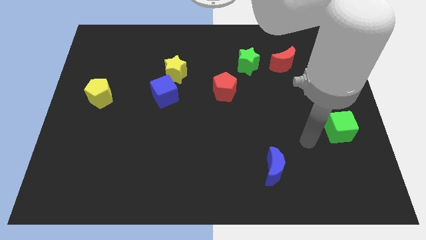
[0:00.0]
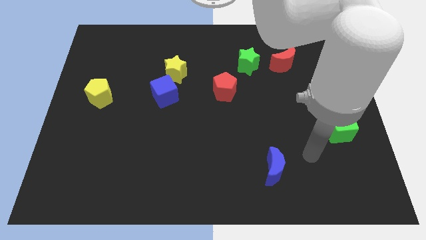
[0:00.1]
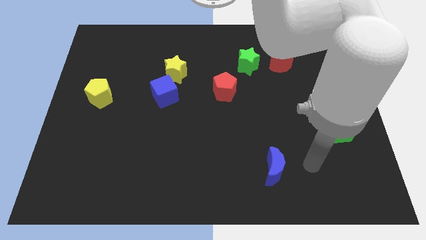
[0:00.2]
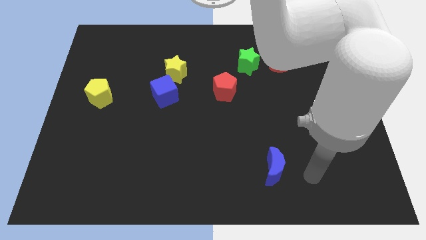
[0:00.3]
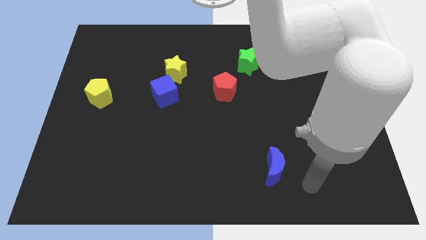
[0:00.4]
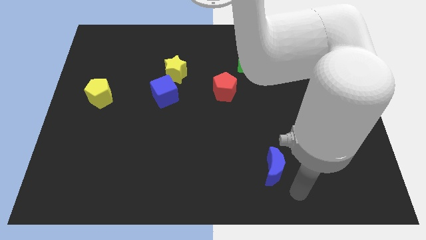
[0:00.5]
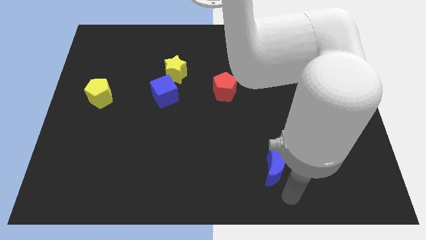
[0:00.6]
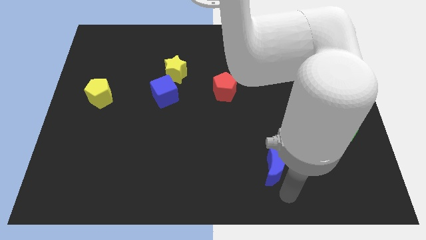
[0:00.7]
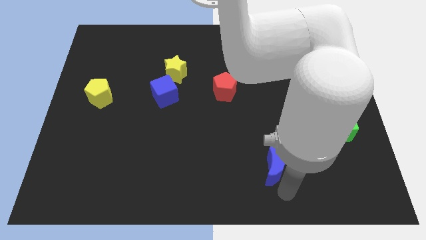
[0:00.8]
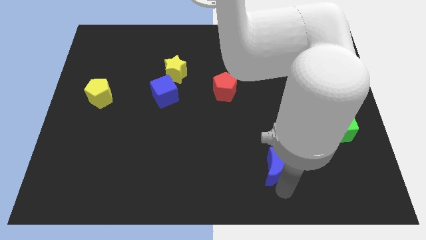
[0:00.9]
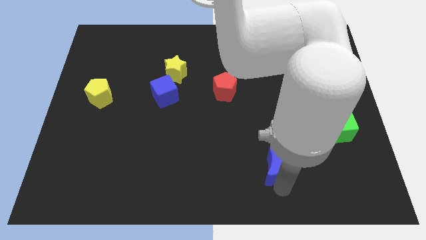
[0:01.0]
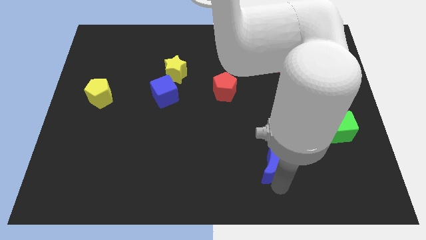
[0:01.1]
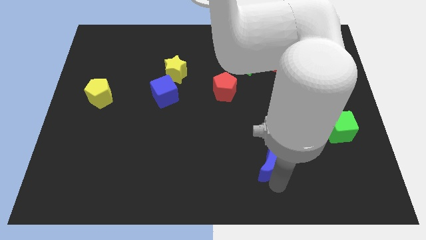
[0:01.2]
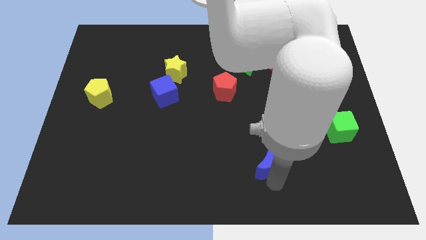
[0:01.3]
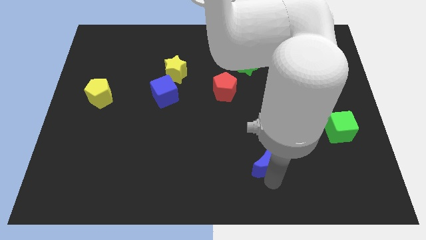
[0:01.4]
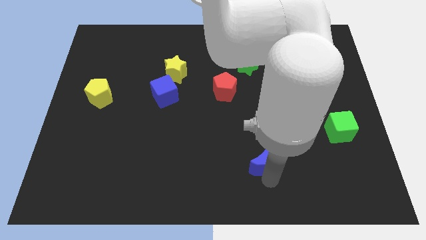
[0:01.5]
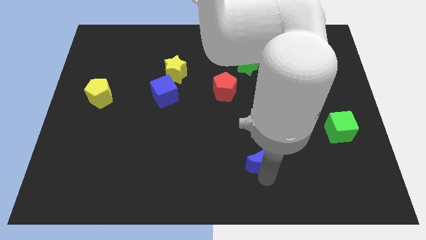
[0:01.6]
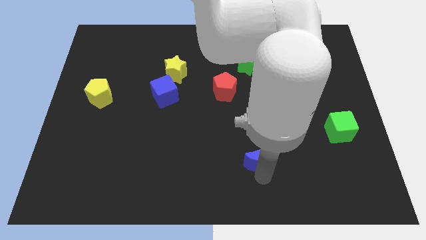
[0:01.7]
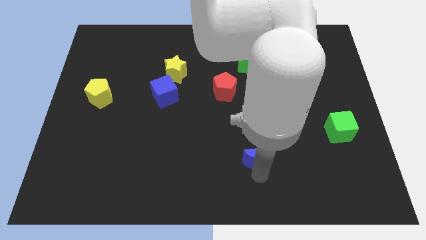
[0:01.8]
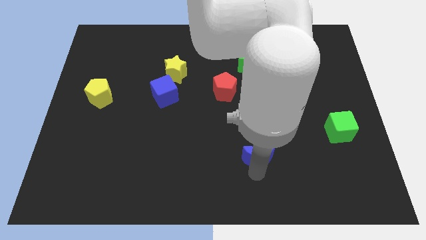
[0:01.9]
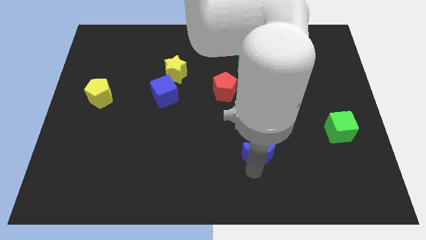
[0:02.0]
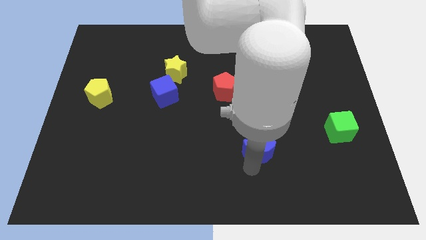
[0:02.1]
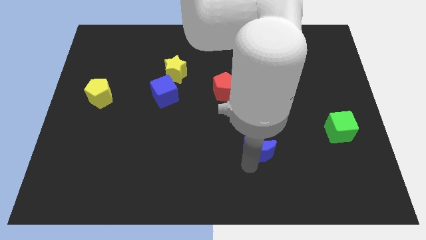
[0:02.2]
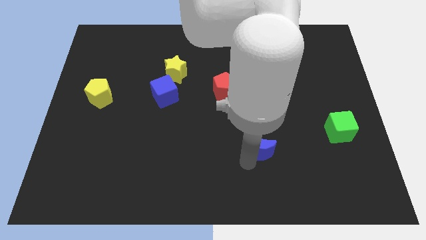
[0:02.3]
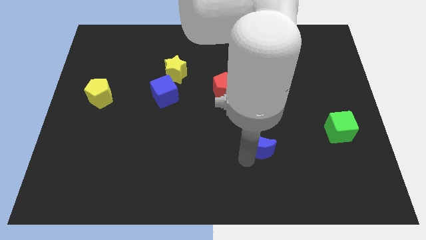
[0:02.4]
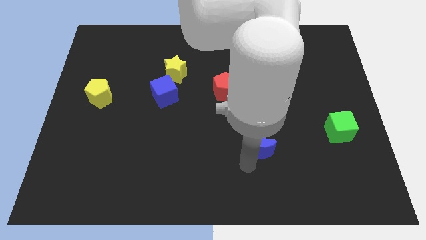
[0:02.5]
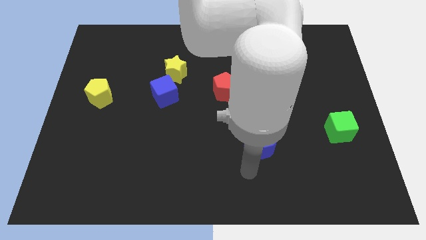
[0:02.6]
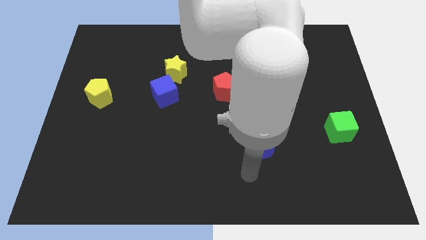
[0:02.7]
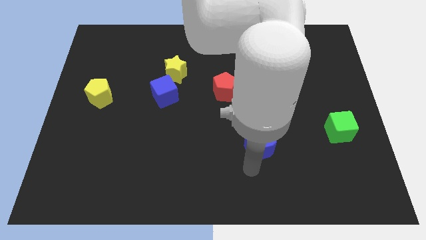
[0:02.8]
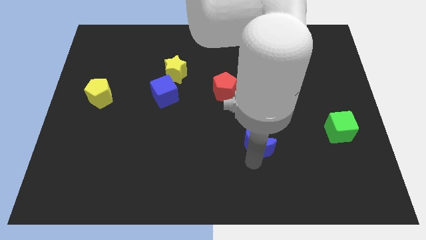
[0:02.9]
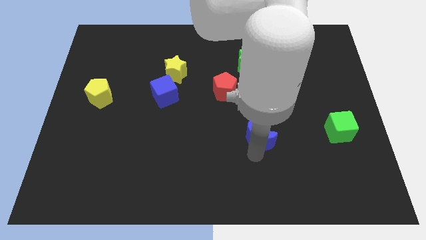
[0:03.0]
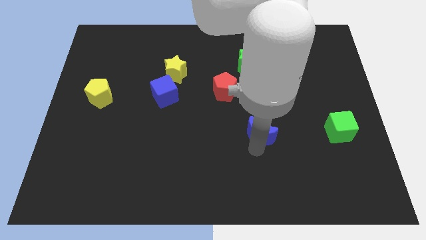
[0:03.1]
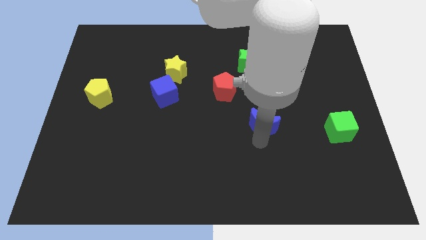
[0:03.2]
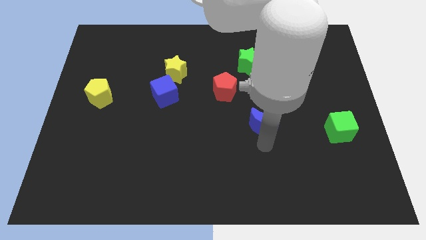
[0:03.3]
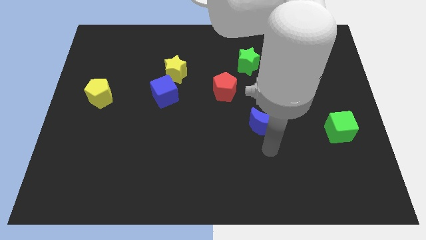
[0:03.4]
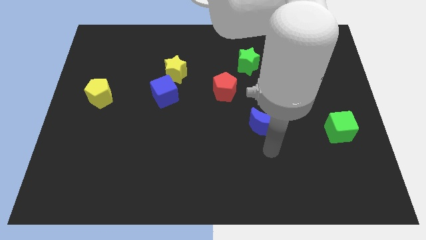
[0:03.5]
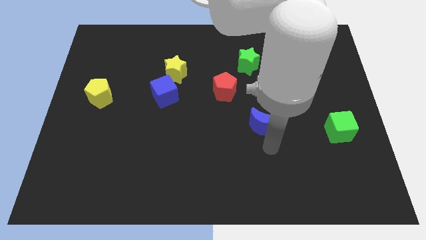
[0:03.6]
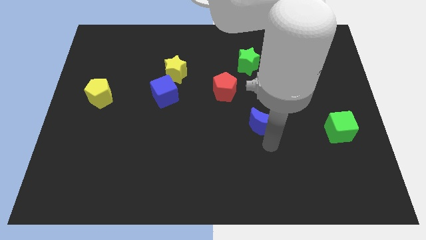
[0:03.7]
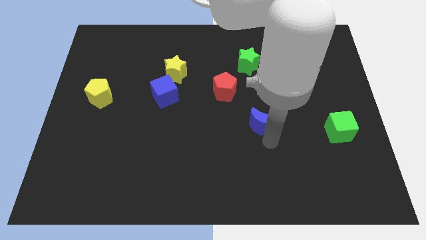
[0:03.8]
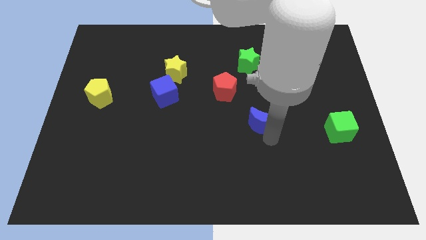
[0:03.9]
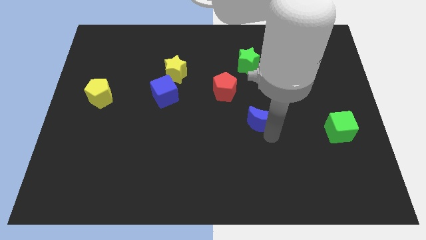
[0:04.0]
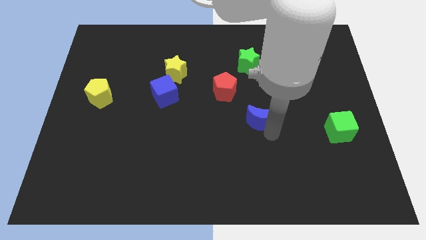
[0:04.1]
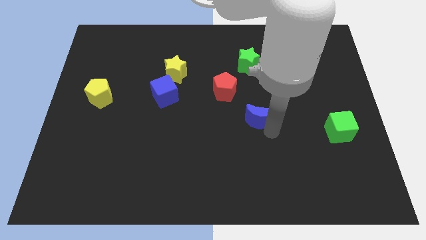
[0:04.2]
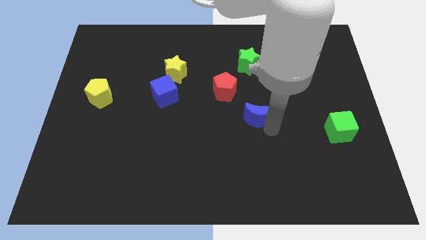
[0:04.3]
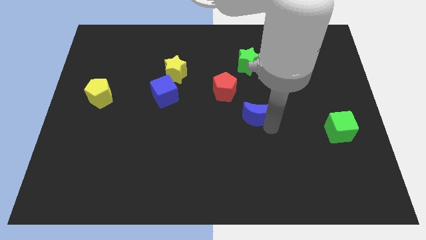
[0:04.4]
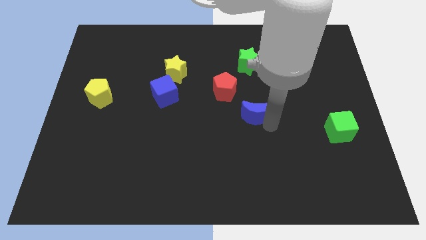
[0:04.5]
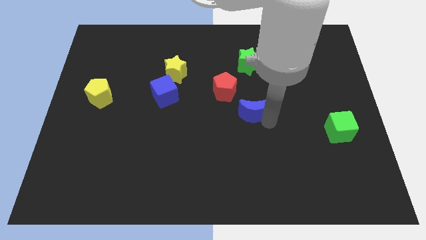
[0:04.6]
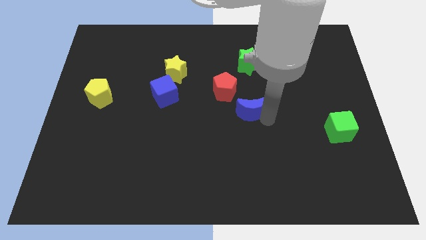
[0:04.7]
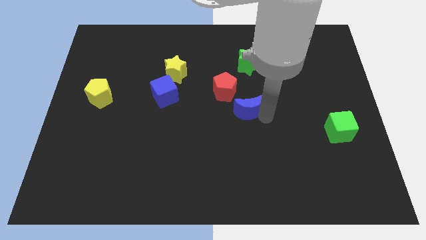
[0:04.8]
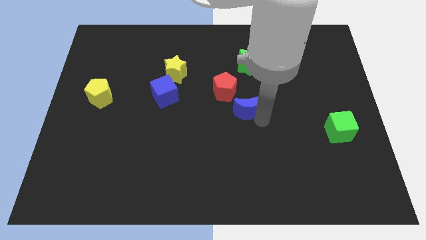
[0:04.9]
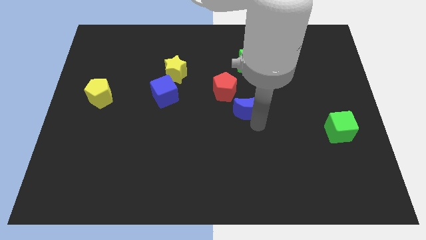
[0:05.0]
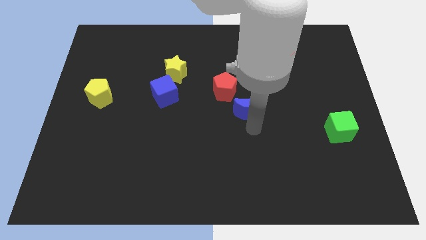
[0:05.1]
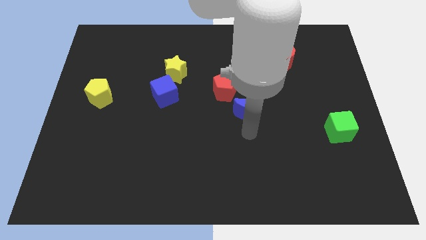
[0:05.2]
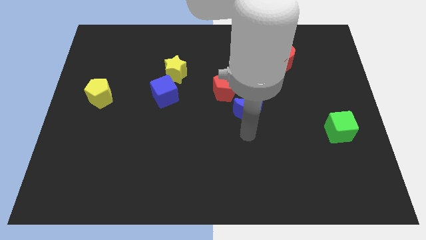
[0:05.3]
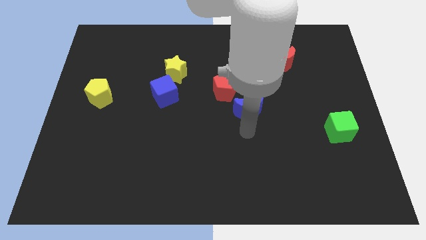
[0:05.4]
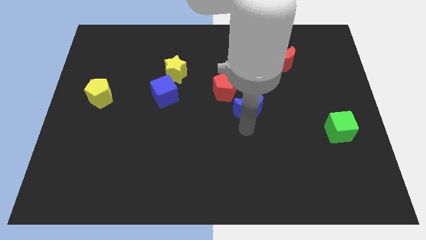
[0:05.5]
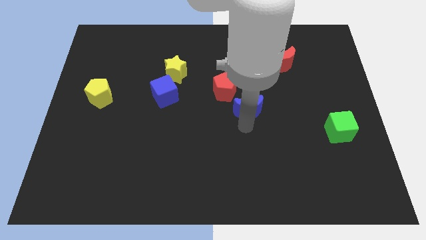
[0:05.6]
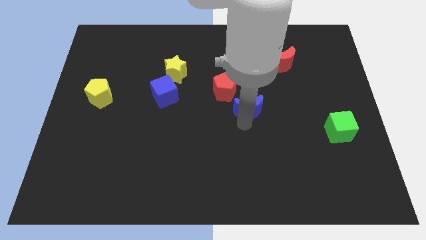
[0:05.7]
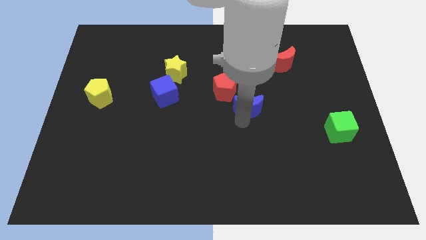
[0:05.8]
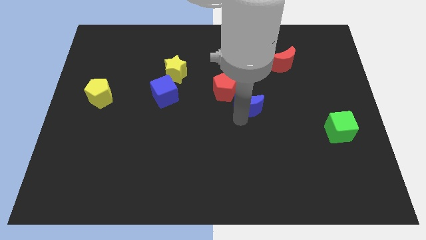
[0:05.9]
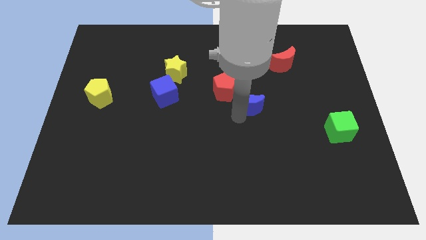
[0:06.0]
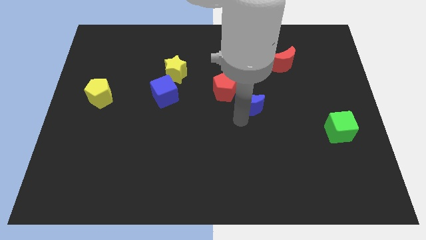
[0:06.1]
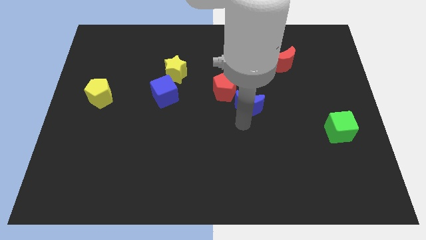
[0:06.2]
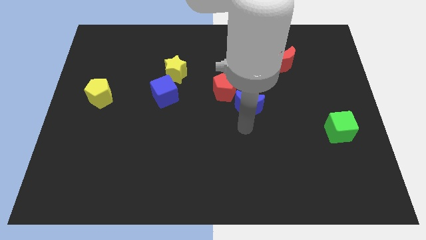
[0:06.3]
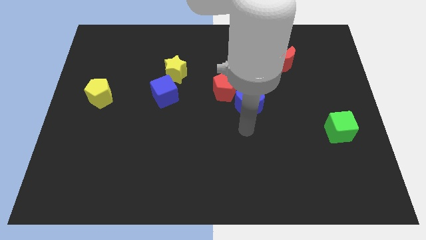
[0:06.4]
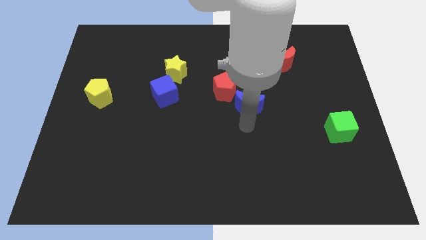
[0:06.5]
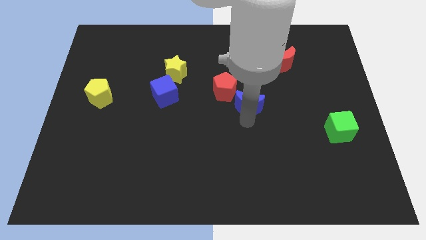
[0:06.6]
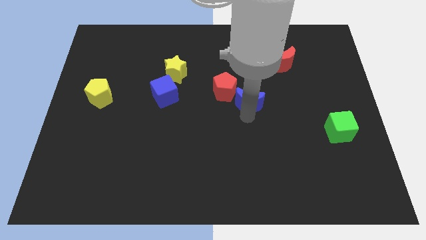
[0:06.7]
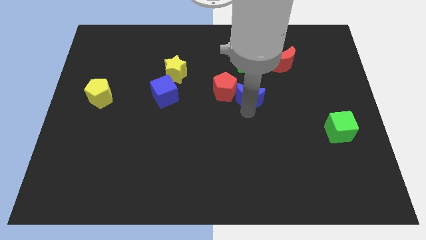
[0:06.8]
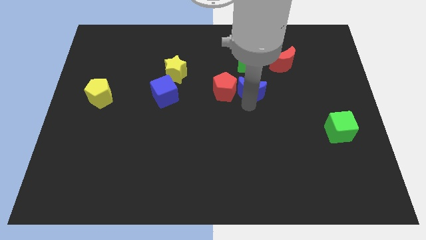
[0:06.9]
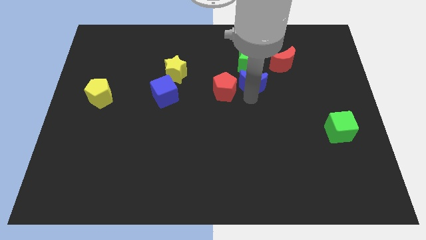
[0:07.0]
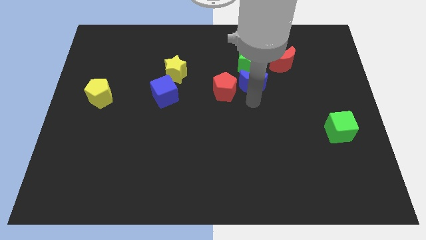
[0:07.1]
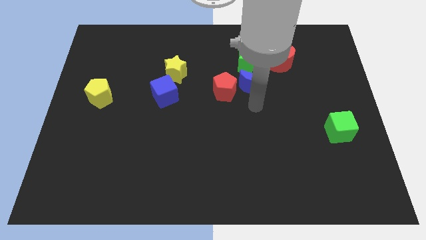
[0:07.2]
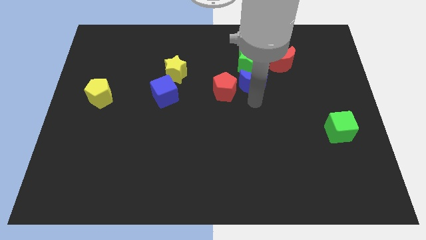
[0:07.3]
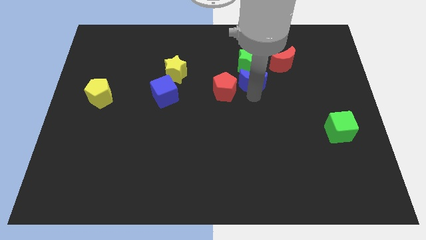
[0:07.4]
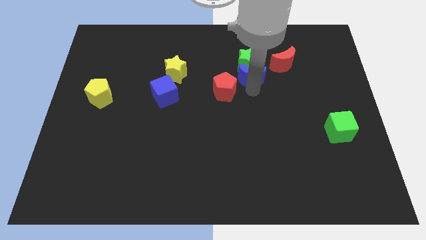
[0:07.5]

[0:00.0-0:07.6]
push the blue moon towards the green star

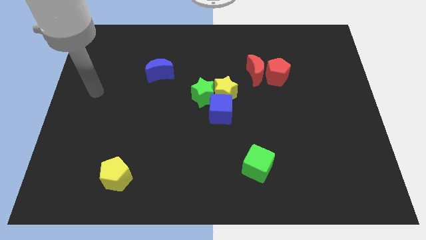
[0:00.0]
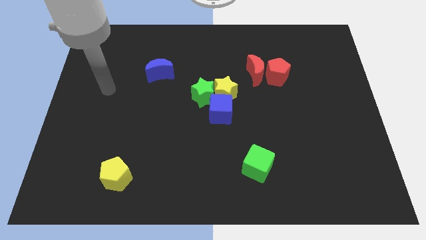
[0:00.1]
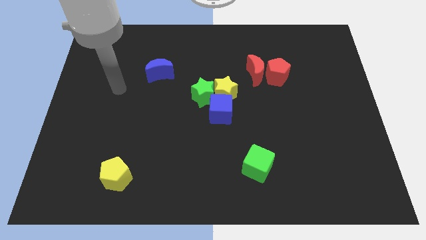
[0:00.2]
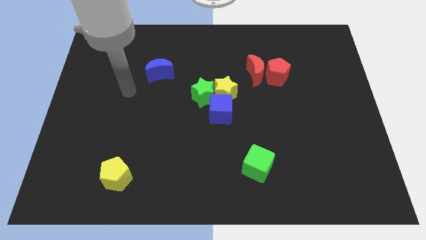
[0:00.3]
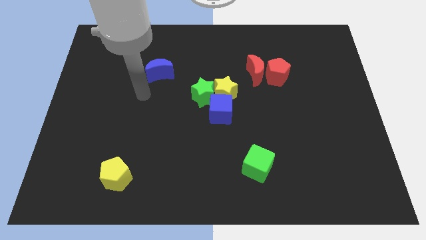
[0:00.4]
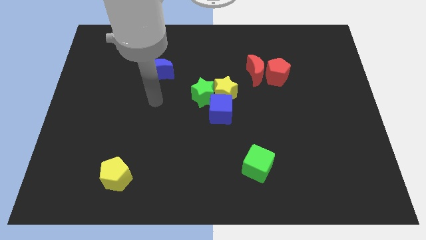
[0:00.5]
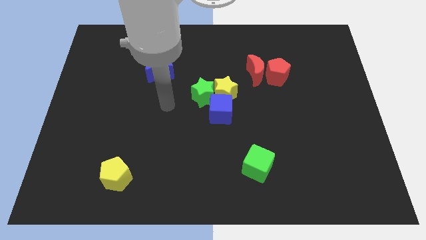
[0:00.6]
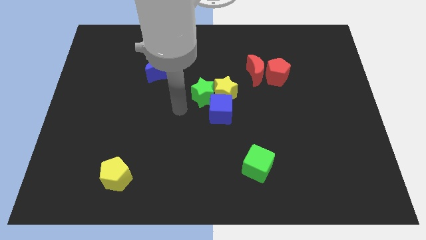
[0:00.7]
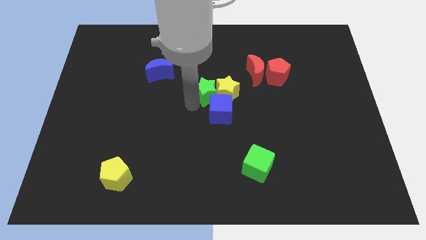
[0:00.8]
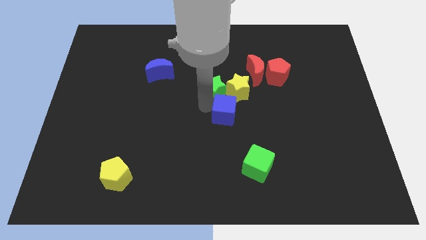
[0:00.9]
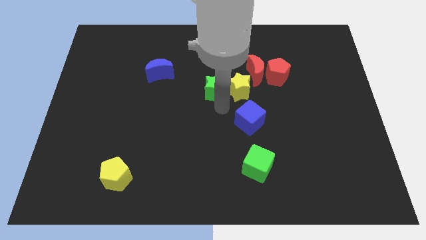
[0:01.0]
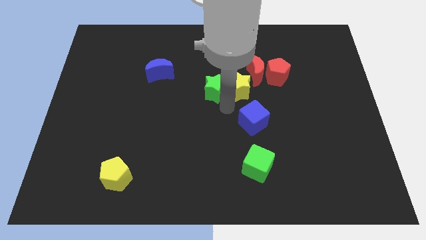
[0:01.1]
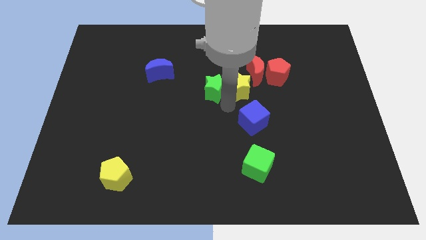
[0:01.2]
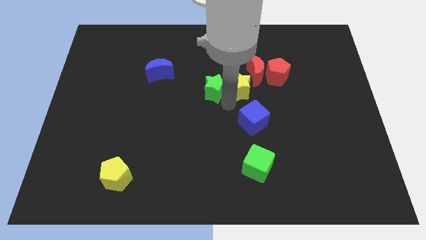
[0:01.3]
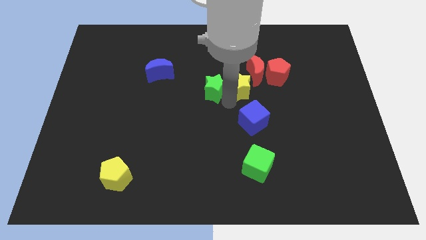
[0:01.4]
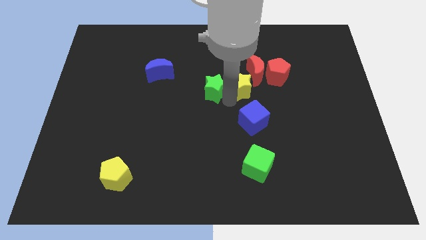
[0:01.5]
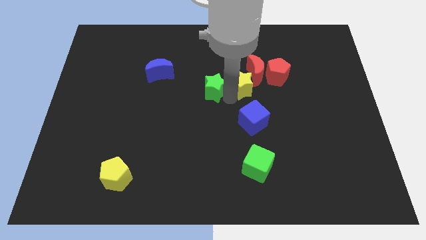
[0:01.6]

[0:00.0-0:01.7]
move the yellow star to the red moon
